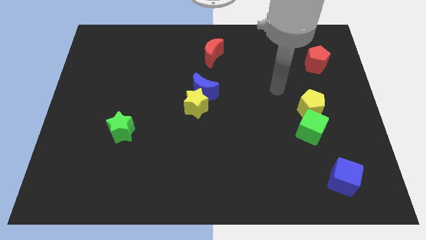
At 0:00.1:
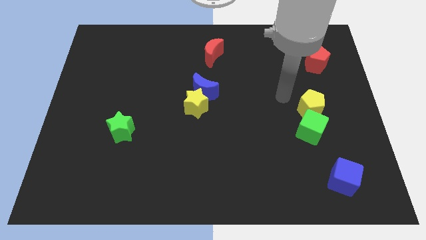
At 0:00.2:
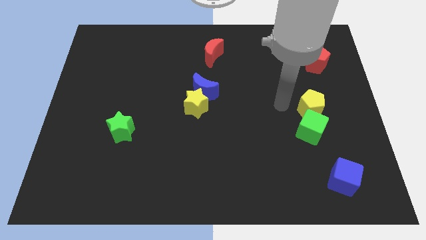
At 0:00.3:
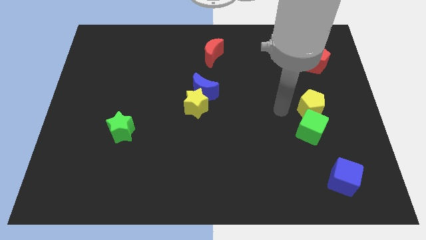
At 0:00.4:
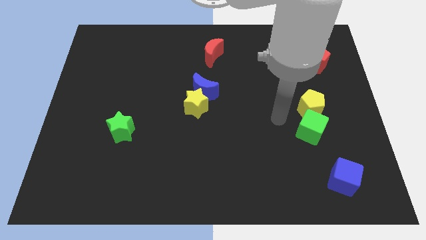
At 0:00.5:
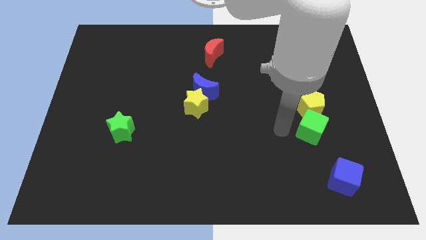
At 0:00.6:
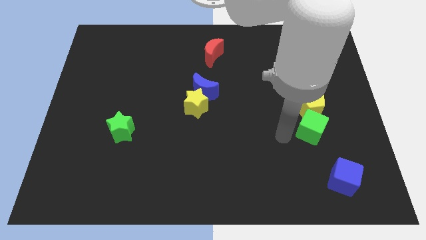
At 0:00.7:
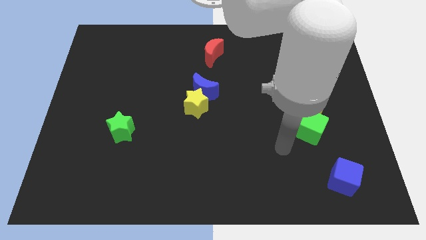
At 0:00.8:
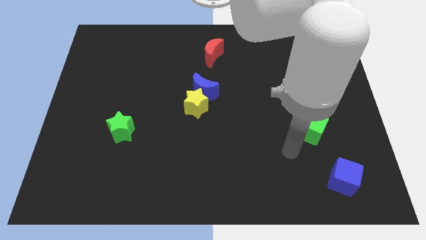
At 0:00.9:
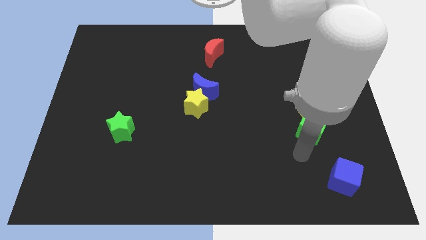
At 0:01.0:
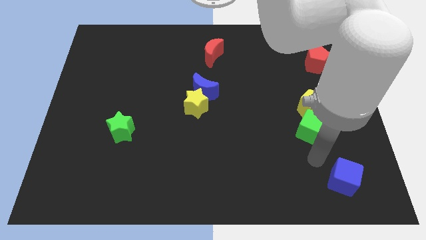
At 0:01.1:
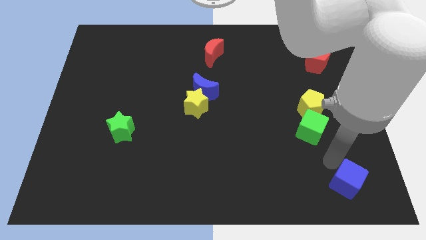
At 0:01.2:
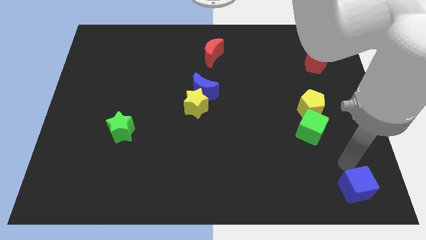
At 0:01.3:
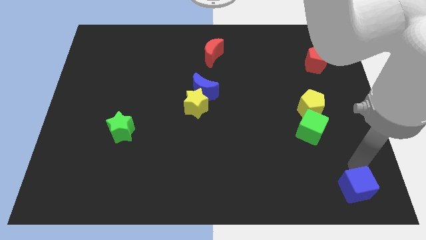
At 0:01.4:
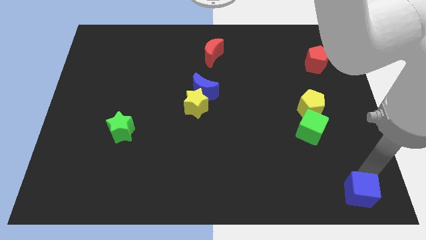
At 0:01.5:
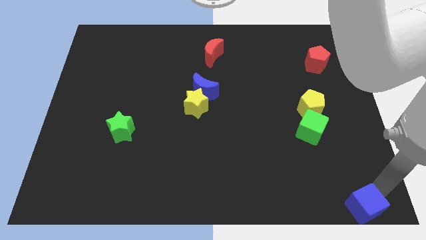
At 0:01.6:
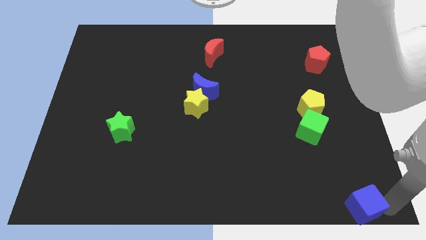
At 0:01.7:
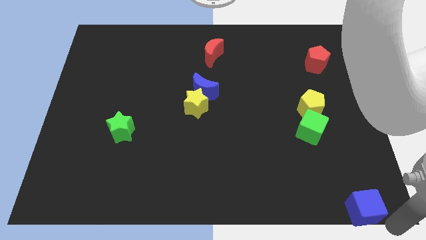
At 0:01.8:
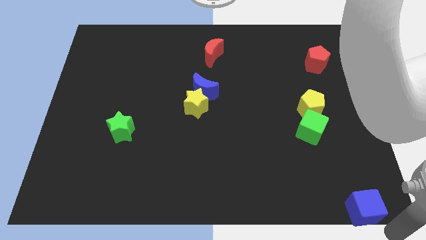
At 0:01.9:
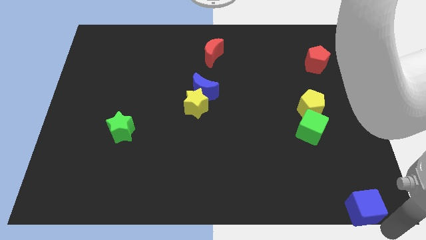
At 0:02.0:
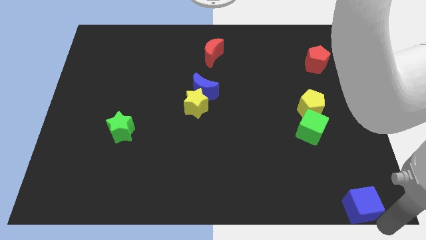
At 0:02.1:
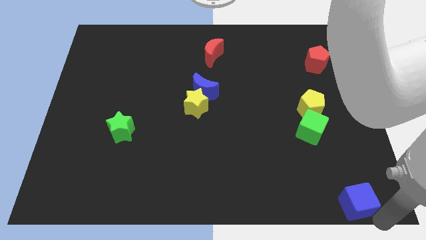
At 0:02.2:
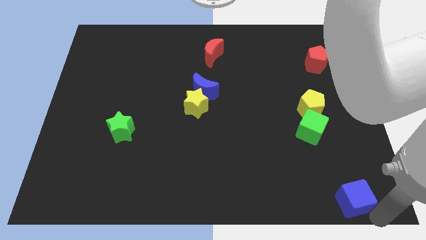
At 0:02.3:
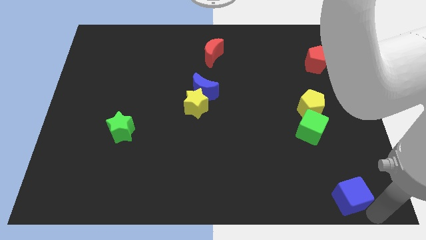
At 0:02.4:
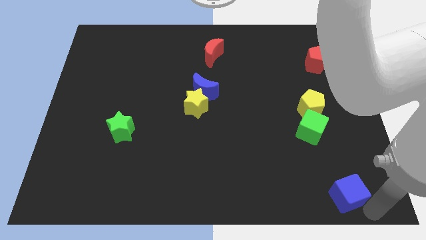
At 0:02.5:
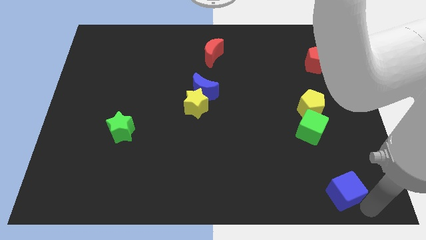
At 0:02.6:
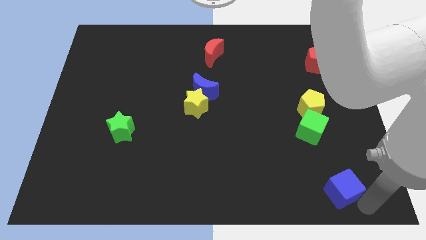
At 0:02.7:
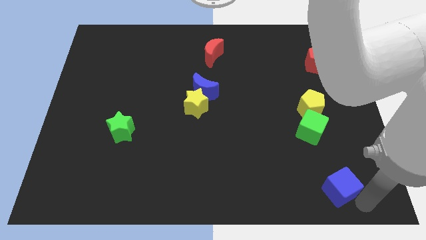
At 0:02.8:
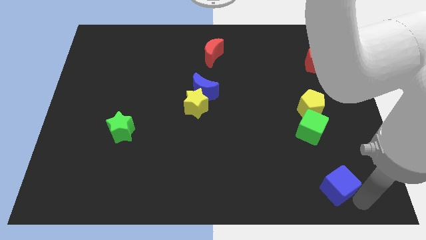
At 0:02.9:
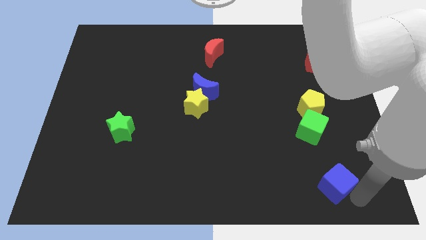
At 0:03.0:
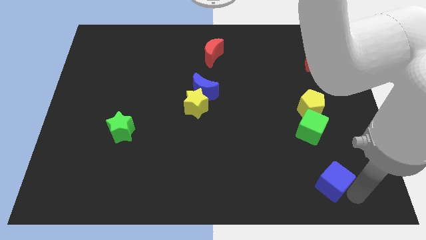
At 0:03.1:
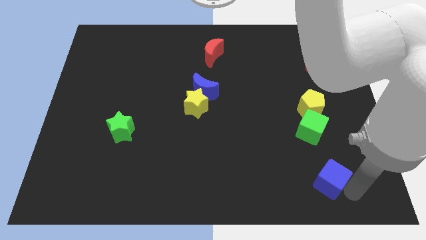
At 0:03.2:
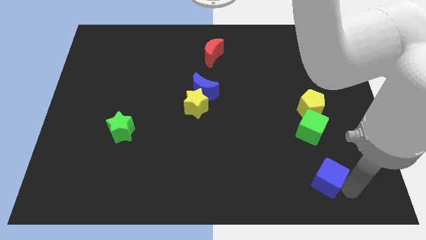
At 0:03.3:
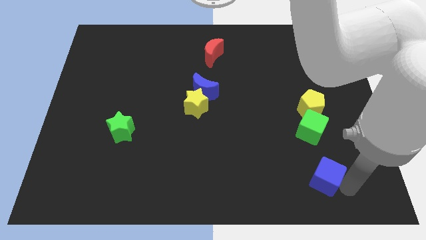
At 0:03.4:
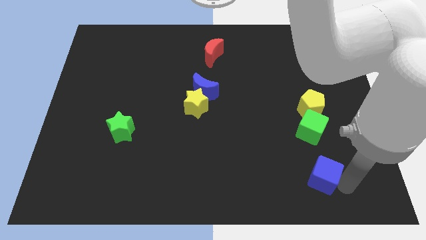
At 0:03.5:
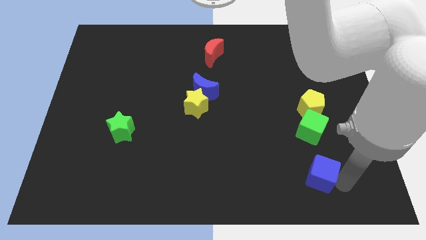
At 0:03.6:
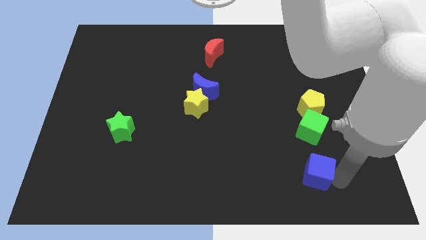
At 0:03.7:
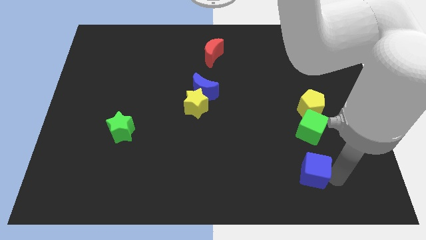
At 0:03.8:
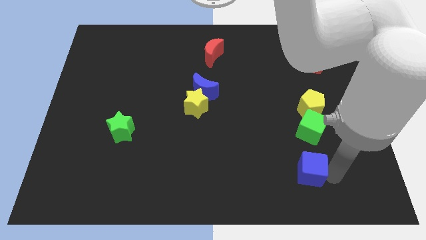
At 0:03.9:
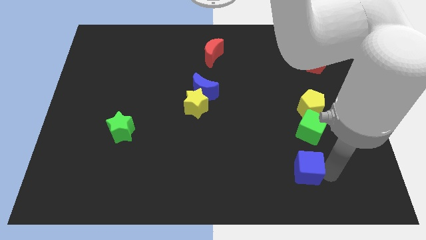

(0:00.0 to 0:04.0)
slightly push the blue cube left

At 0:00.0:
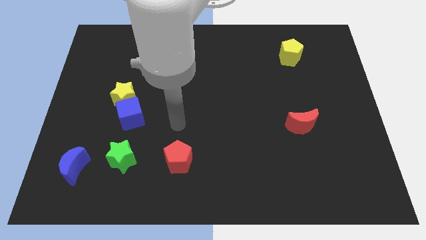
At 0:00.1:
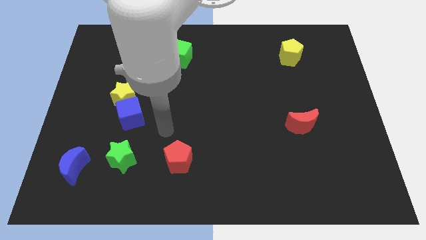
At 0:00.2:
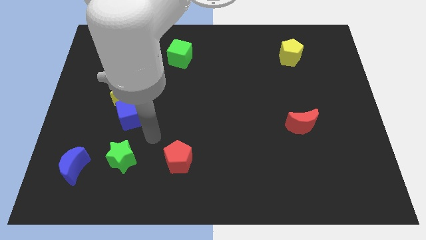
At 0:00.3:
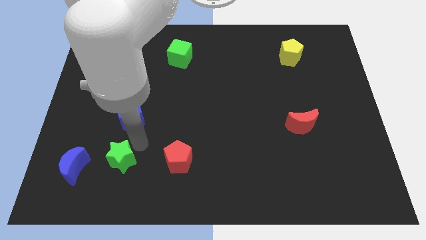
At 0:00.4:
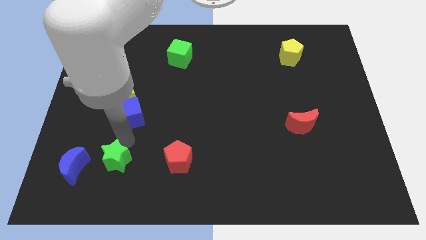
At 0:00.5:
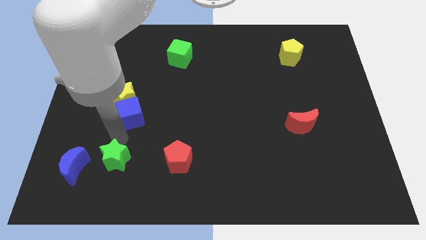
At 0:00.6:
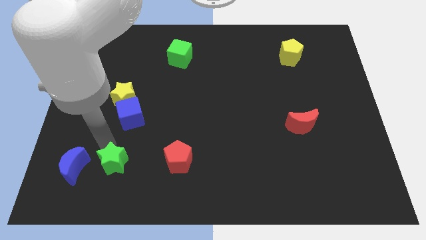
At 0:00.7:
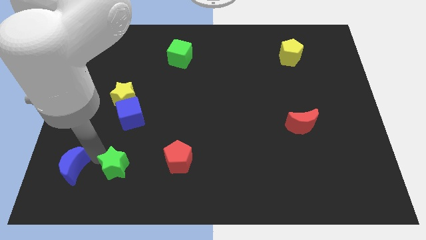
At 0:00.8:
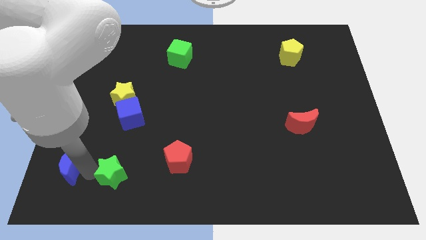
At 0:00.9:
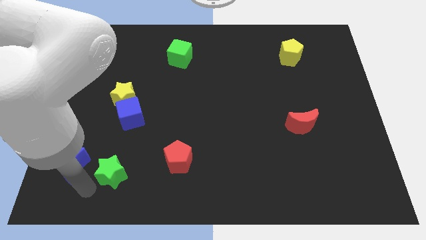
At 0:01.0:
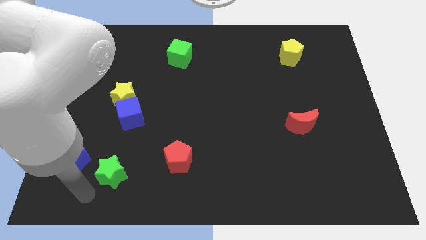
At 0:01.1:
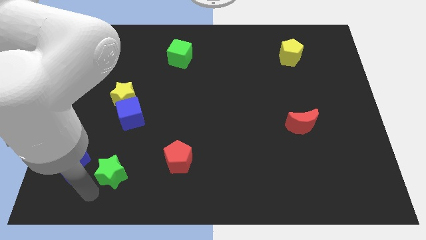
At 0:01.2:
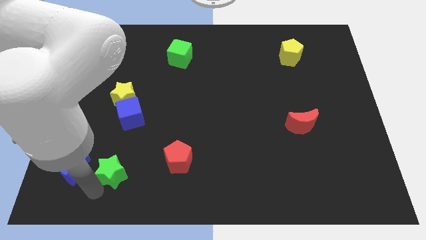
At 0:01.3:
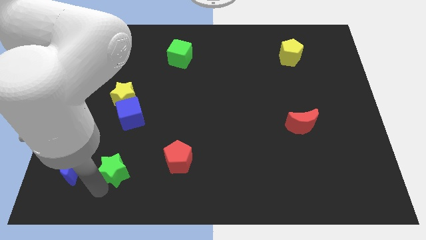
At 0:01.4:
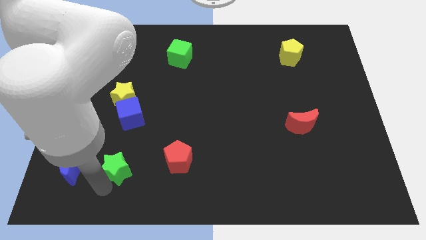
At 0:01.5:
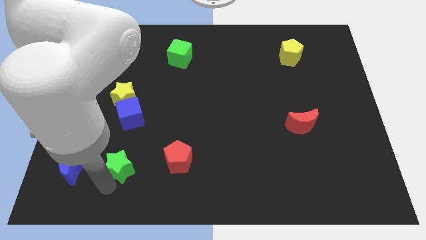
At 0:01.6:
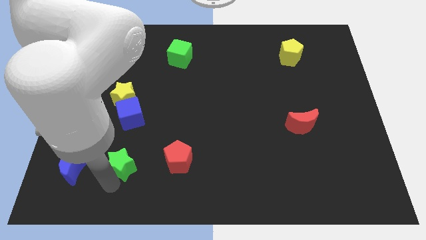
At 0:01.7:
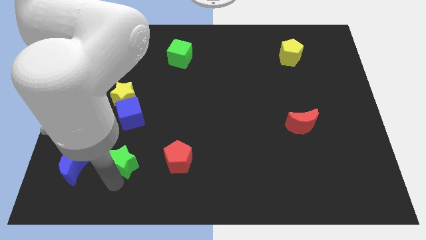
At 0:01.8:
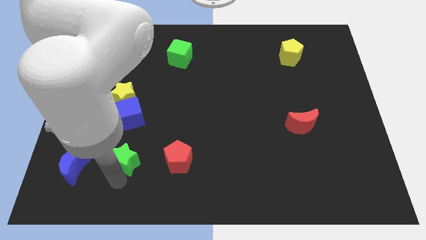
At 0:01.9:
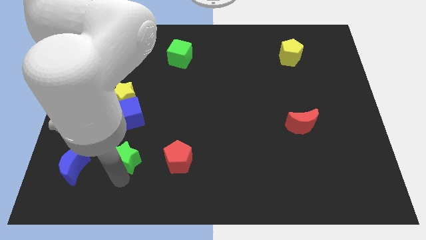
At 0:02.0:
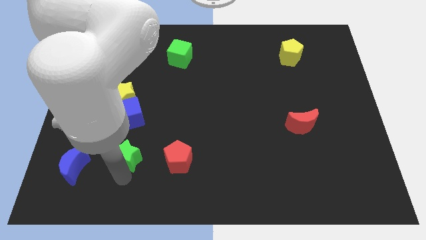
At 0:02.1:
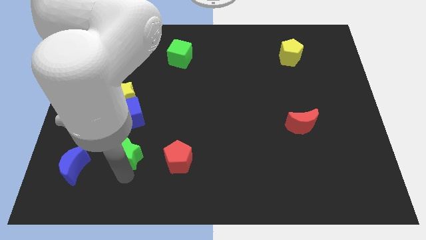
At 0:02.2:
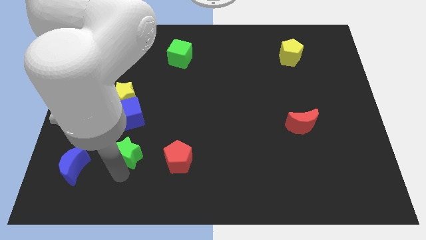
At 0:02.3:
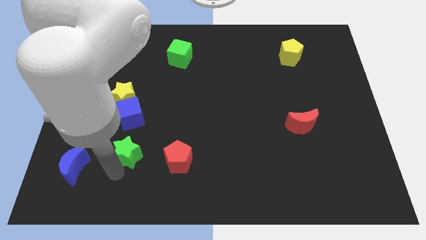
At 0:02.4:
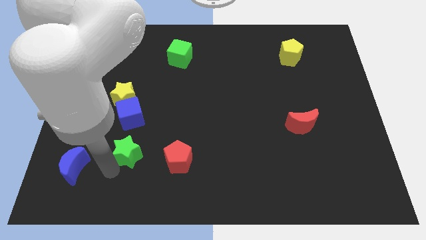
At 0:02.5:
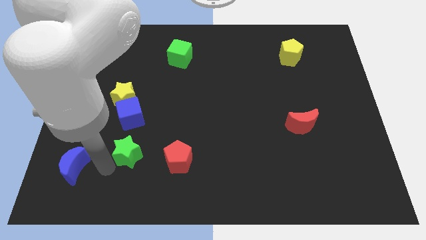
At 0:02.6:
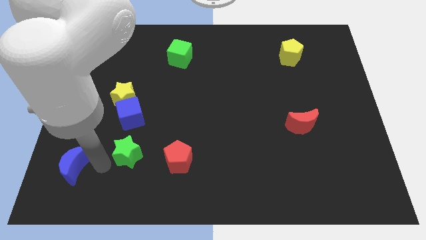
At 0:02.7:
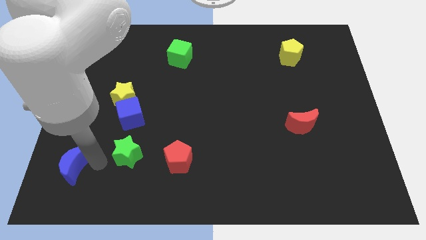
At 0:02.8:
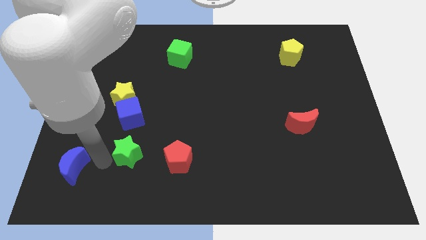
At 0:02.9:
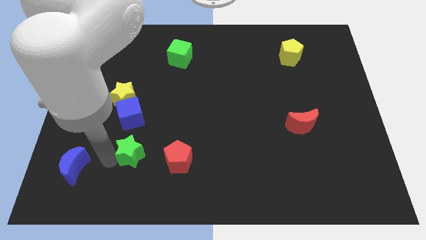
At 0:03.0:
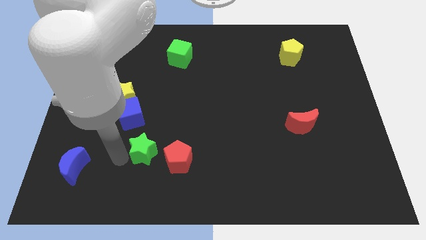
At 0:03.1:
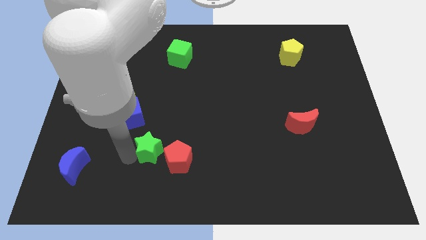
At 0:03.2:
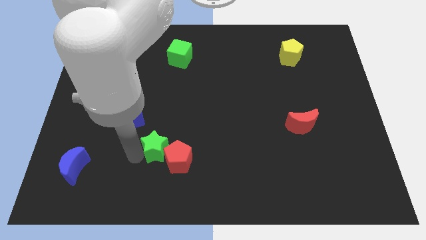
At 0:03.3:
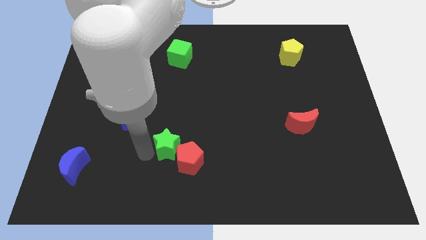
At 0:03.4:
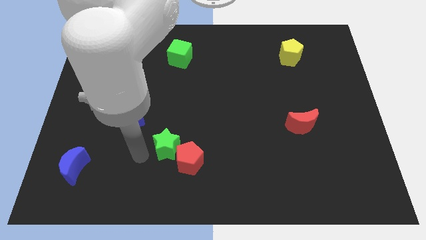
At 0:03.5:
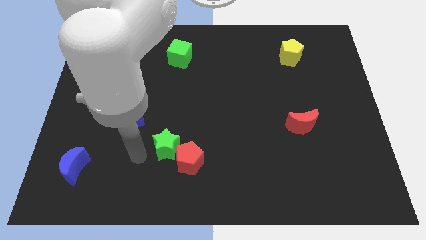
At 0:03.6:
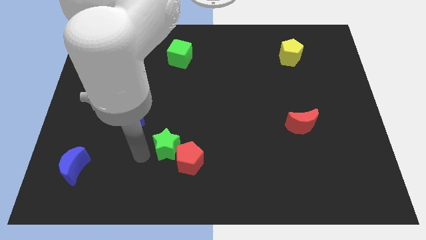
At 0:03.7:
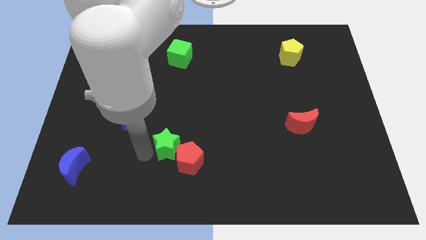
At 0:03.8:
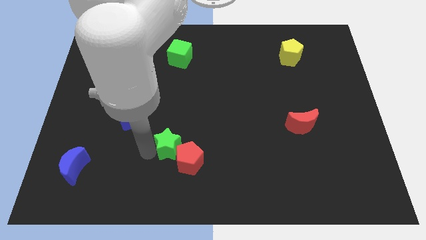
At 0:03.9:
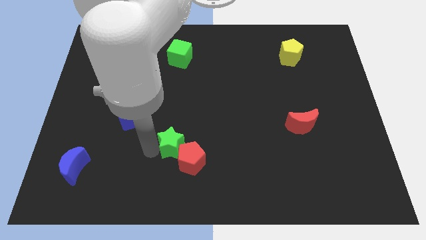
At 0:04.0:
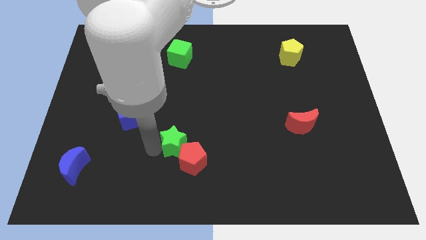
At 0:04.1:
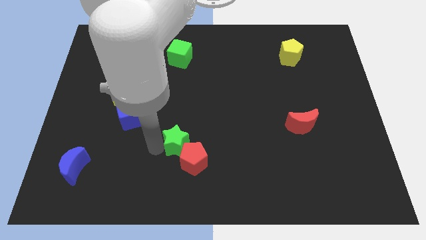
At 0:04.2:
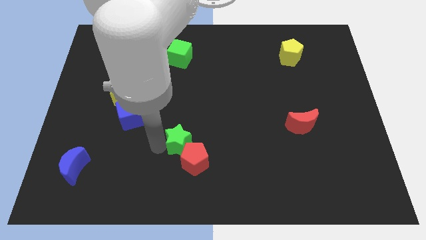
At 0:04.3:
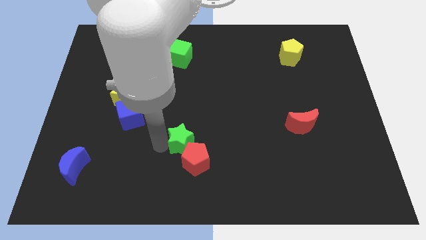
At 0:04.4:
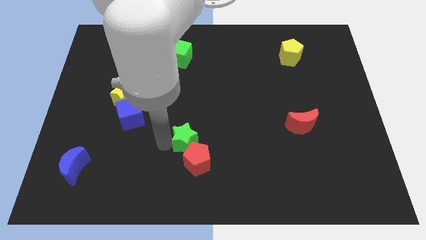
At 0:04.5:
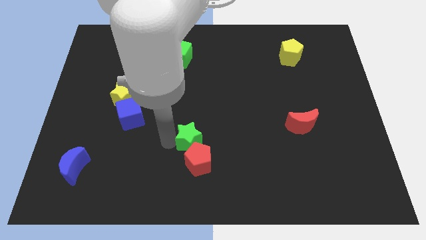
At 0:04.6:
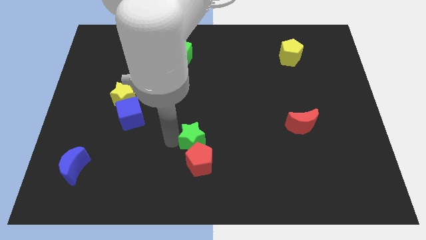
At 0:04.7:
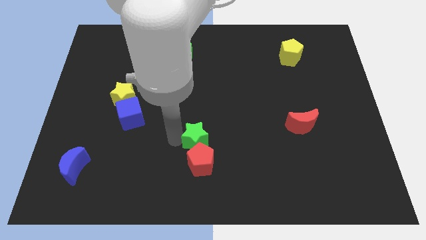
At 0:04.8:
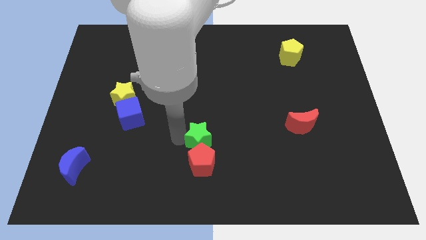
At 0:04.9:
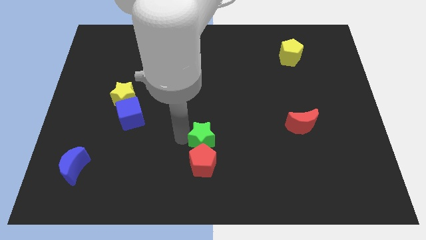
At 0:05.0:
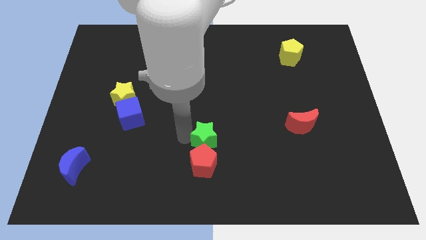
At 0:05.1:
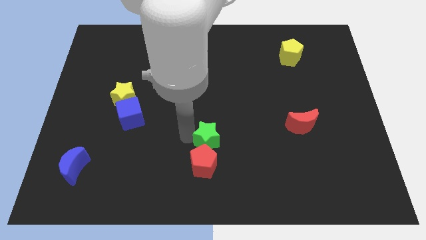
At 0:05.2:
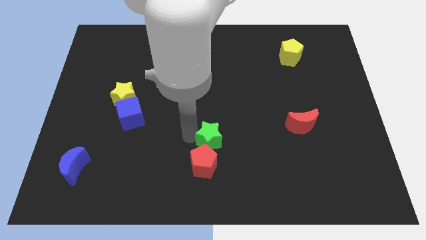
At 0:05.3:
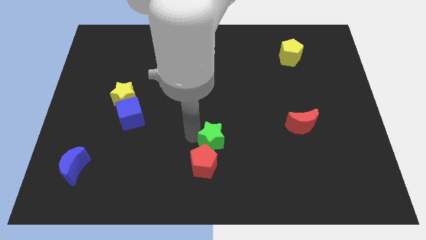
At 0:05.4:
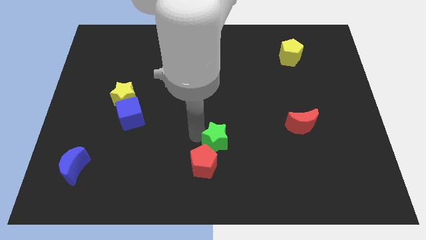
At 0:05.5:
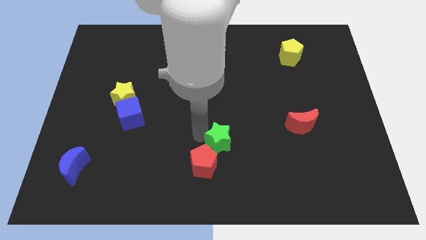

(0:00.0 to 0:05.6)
move the green star right
